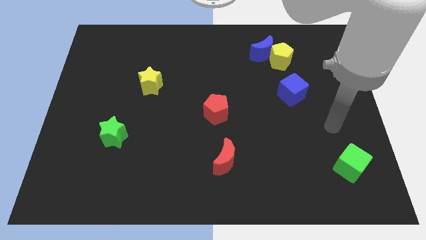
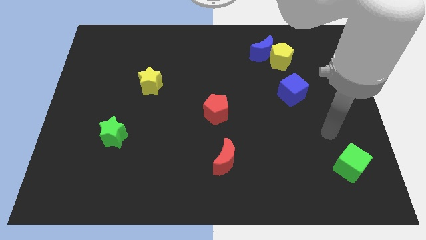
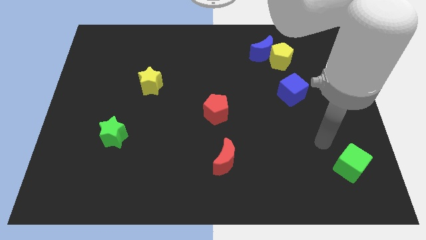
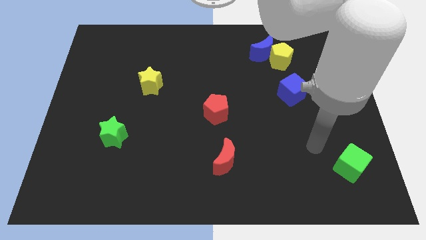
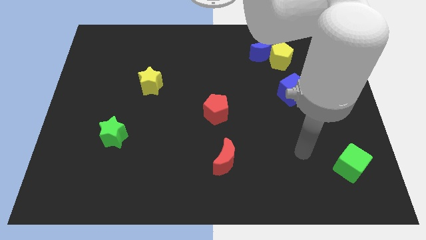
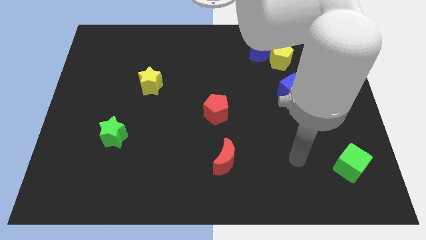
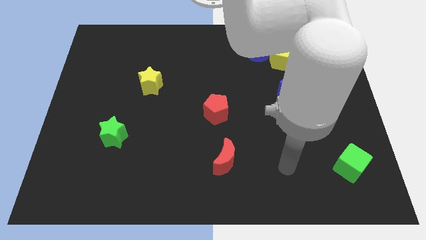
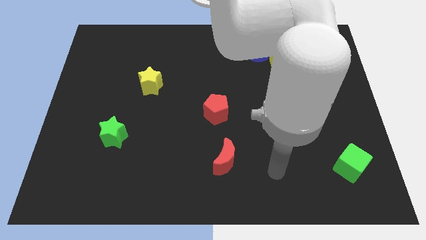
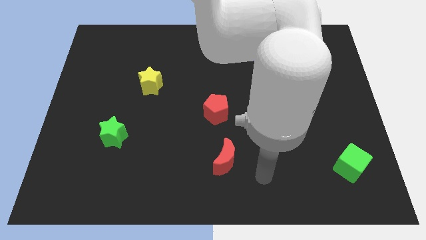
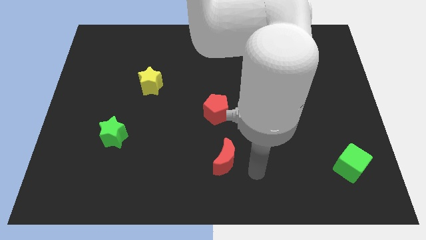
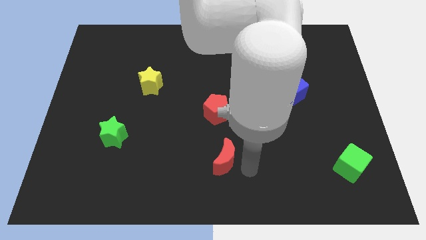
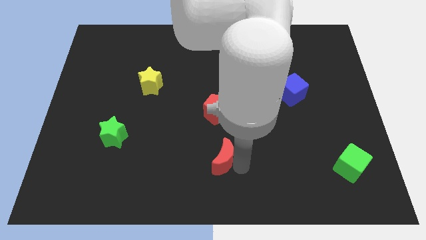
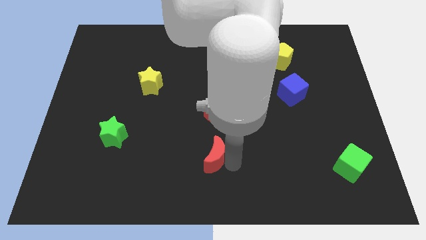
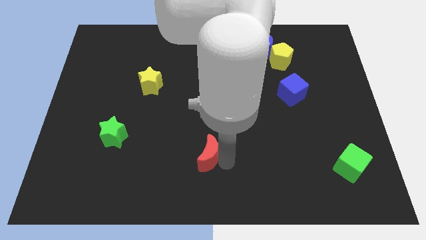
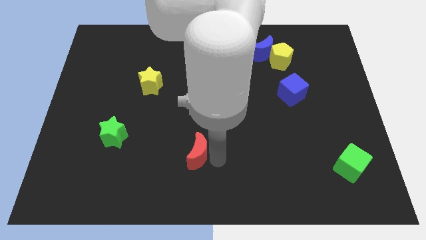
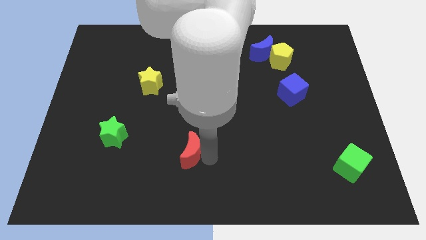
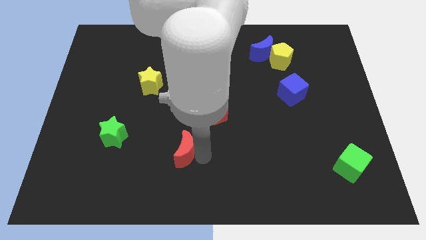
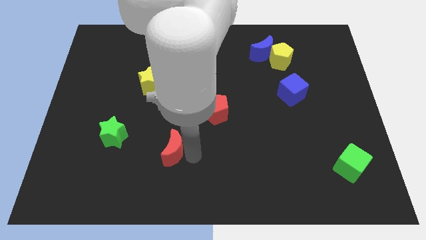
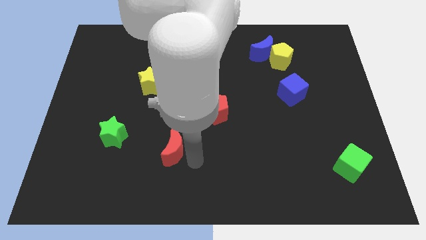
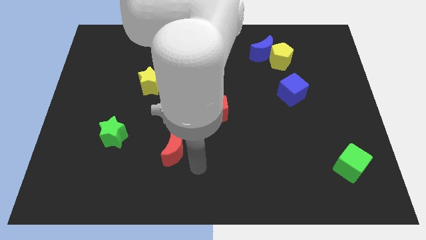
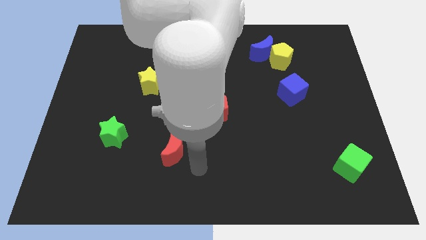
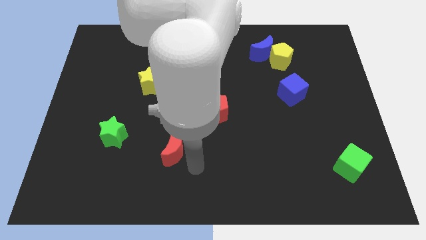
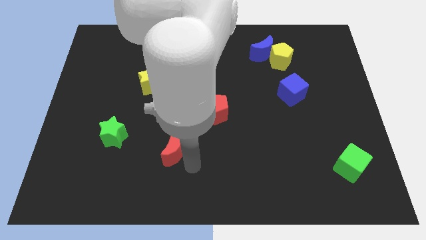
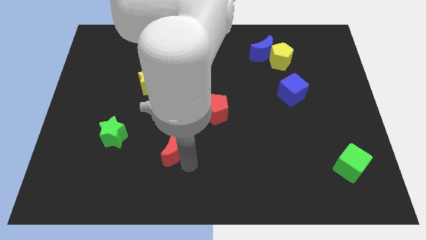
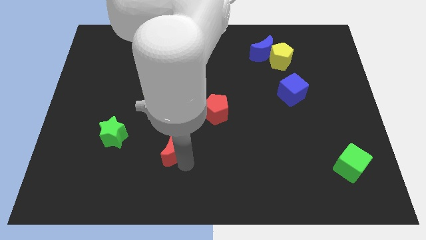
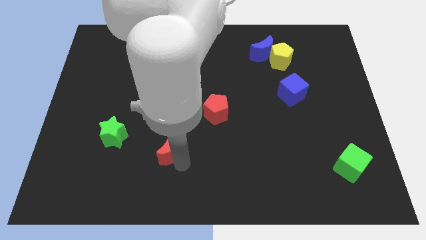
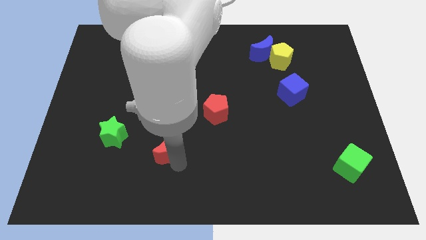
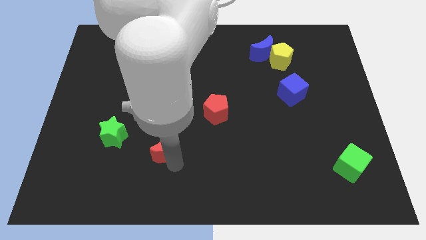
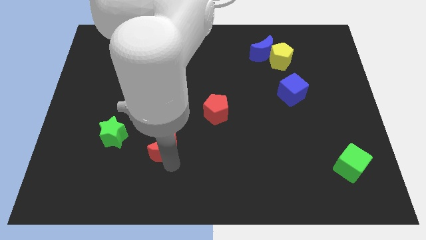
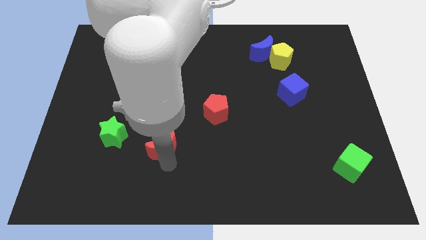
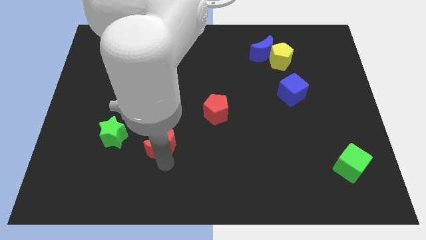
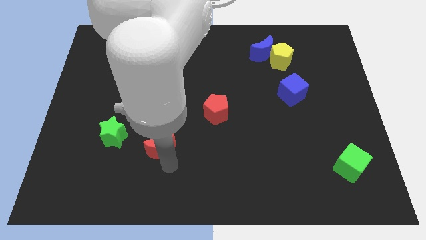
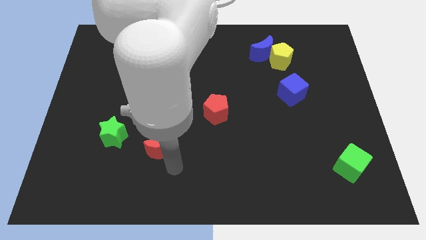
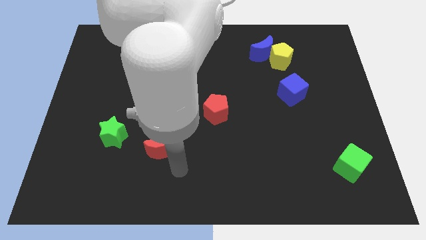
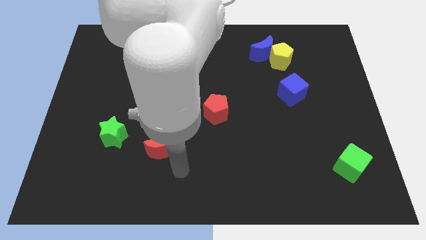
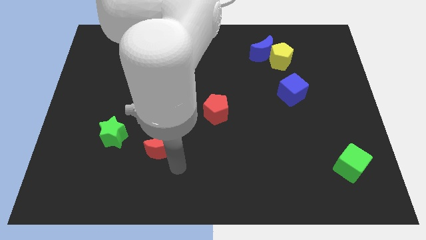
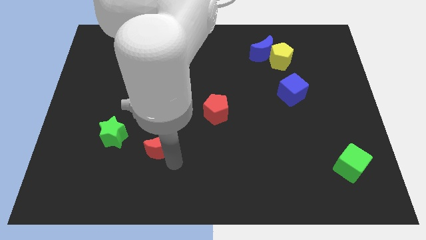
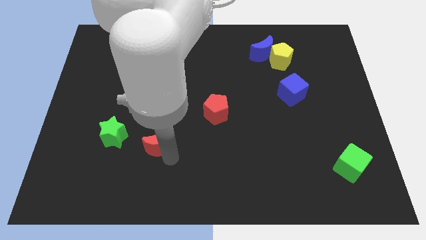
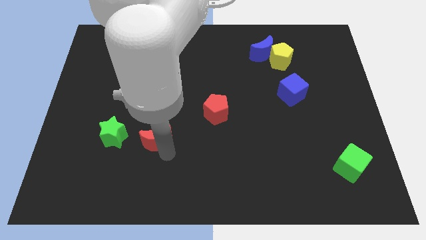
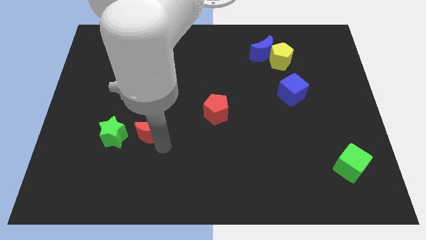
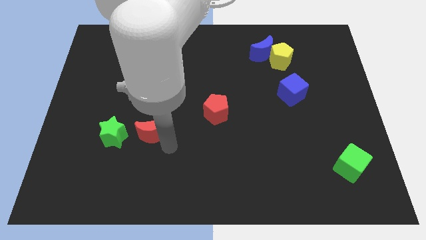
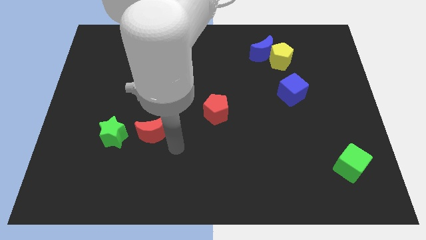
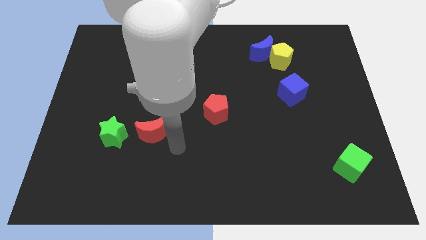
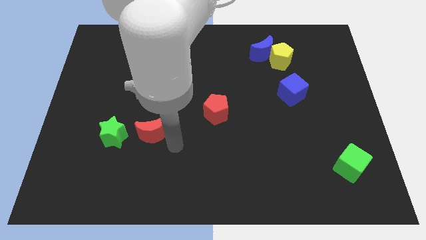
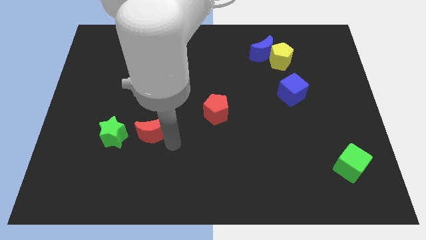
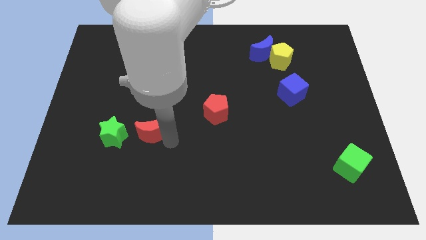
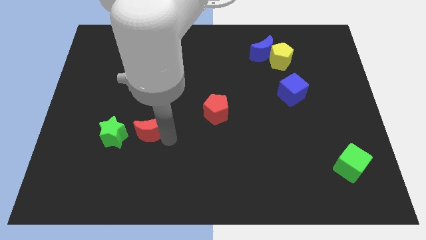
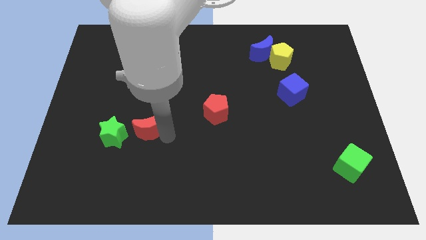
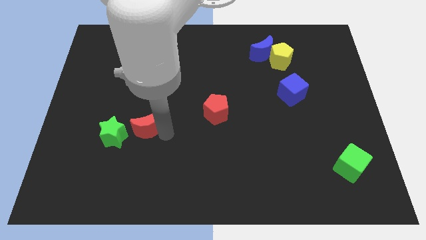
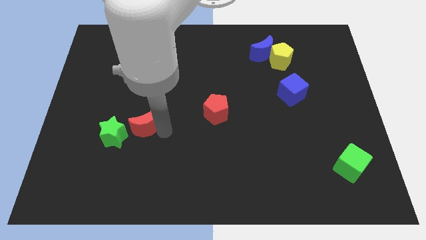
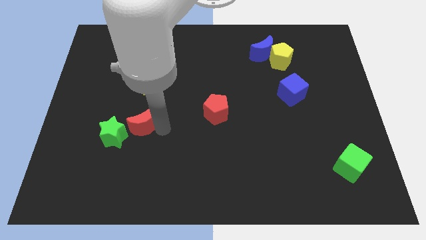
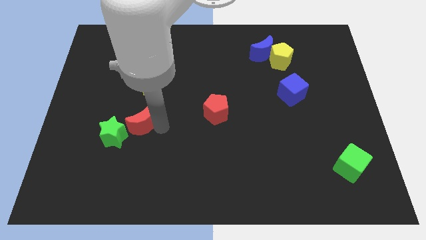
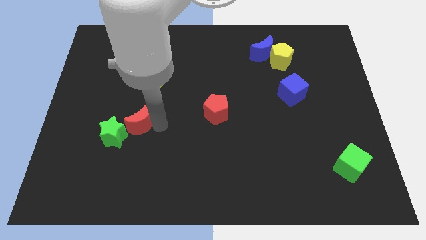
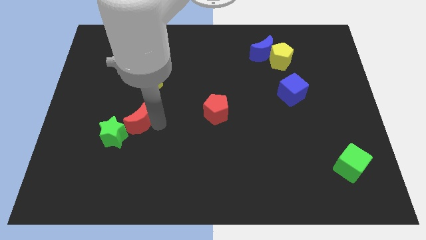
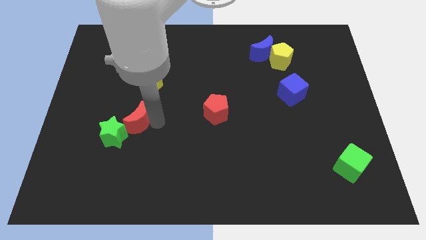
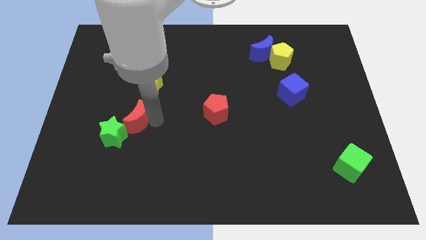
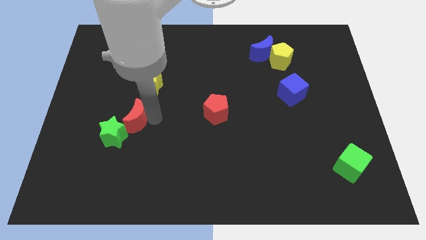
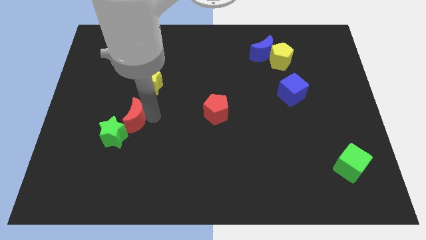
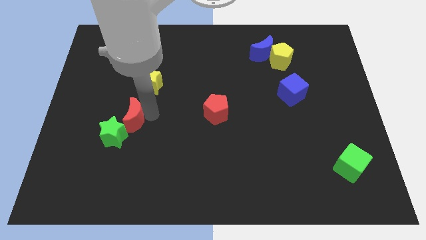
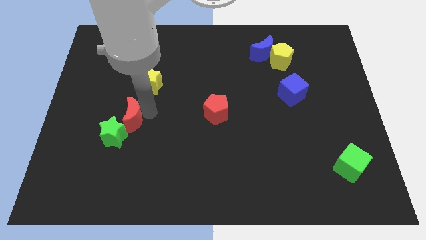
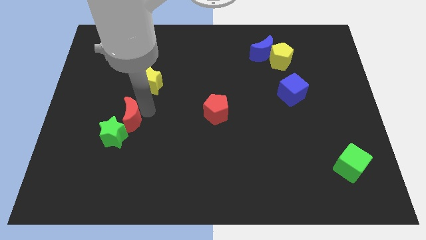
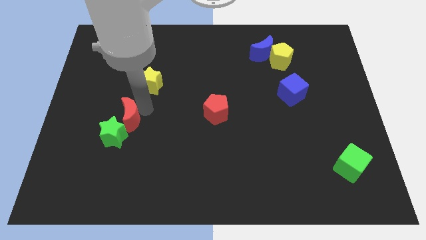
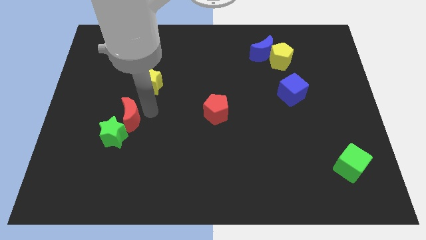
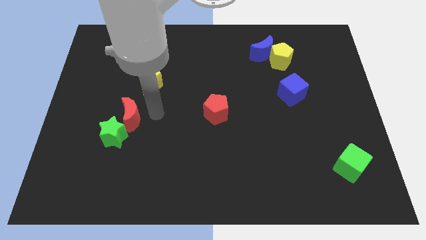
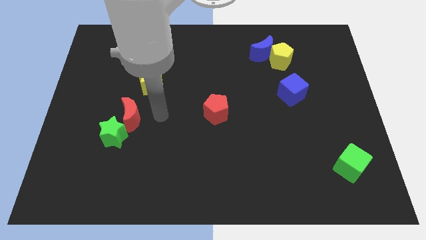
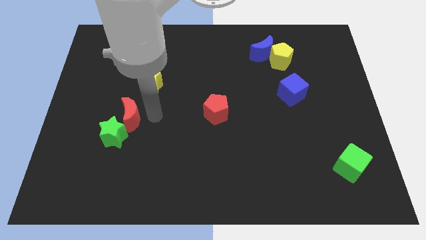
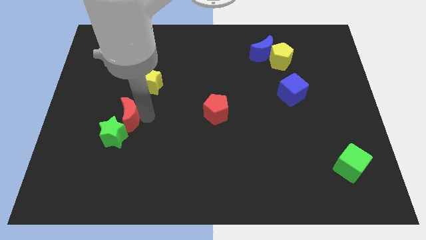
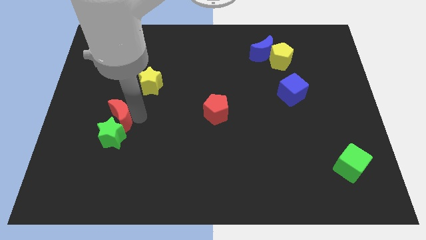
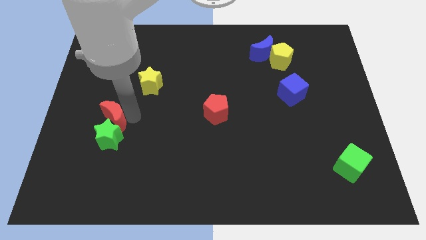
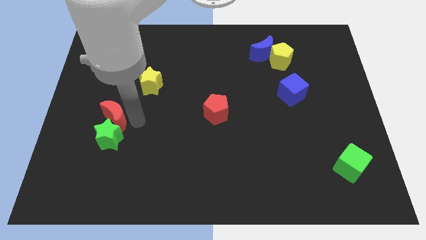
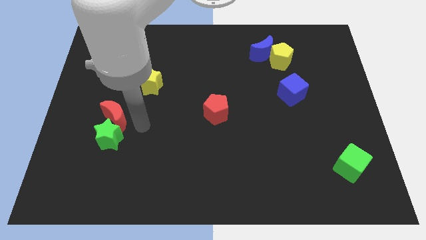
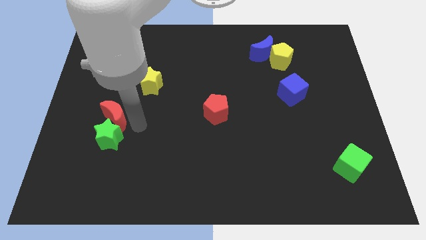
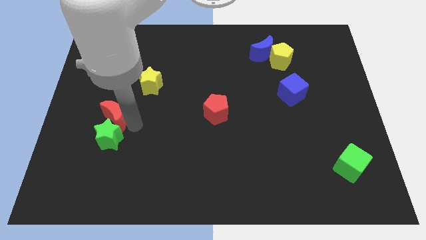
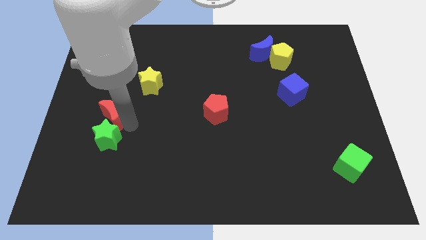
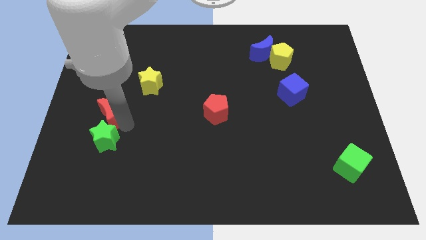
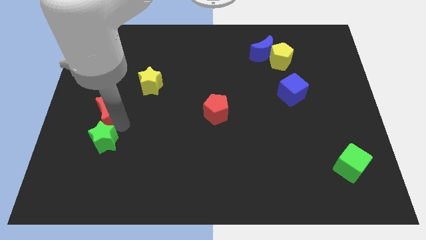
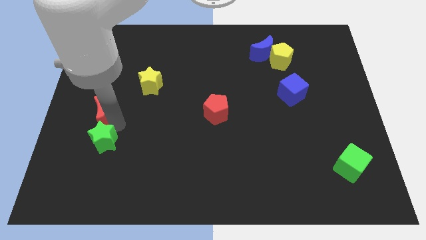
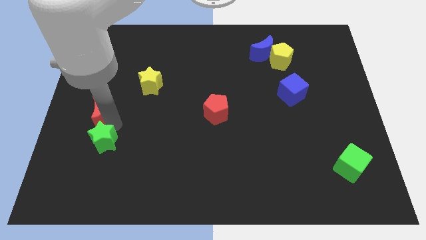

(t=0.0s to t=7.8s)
move the red moon to the center left

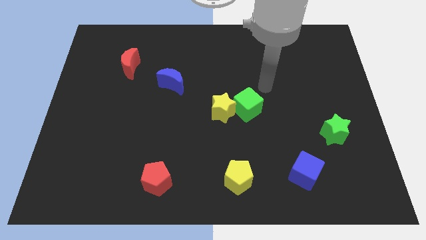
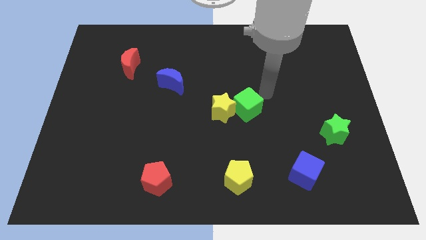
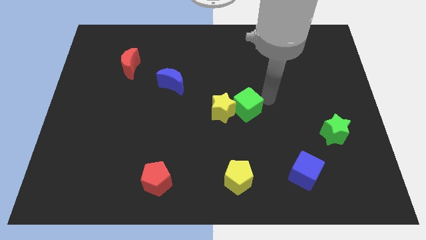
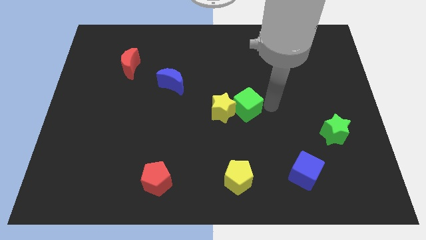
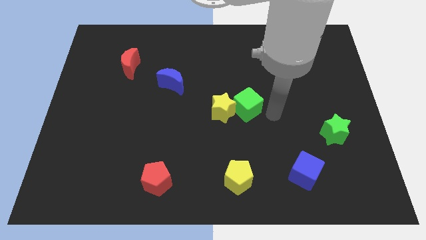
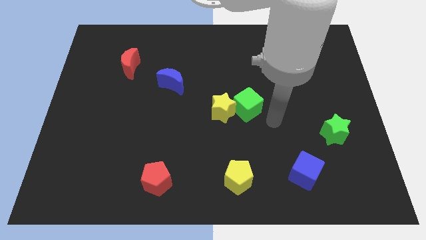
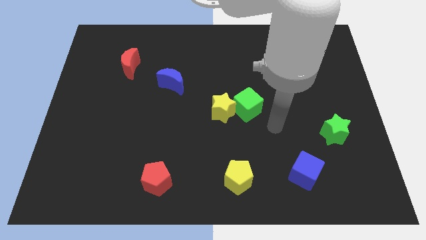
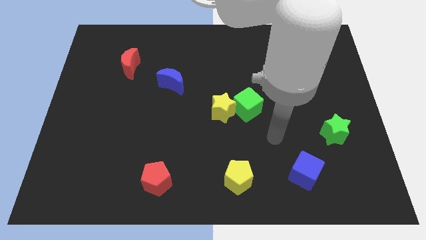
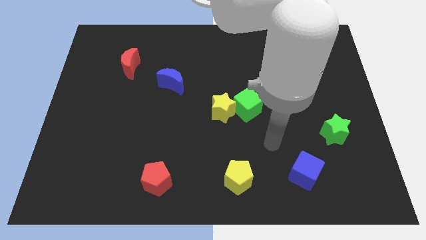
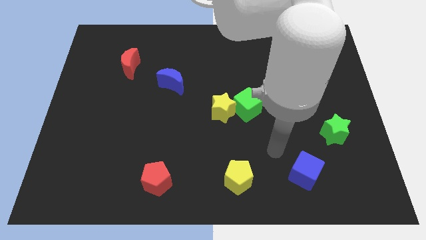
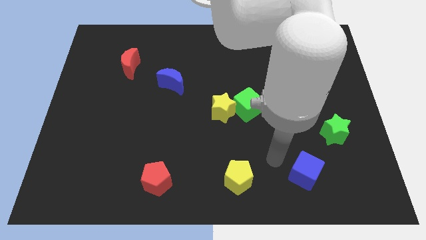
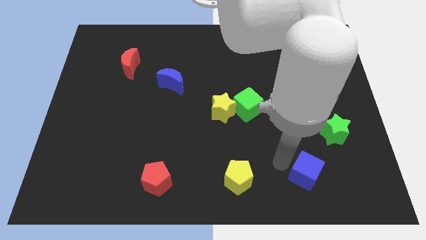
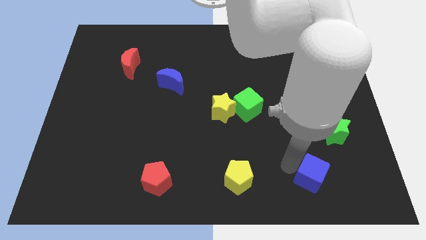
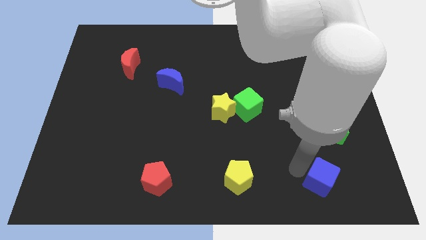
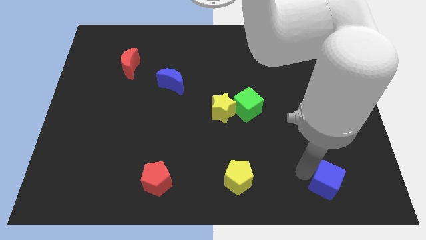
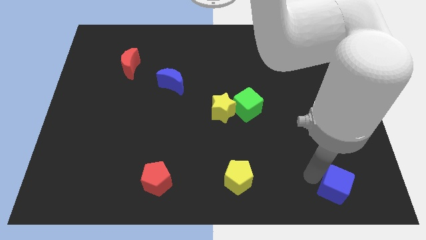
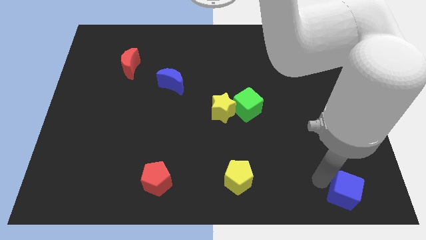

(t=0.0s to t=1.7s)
put the blue cube to the bottom right
